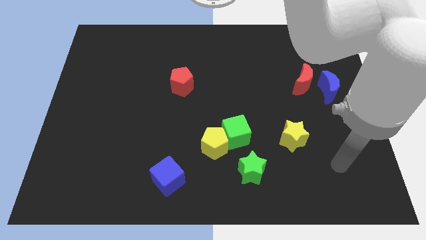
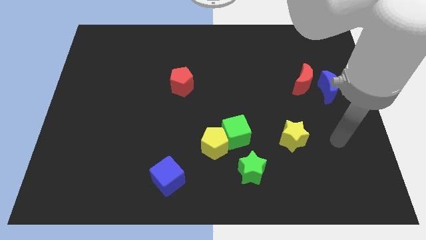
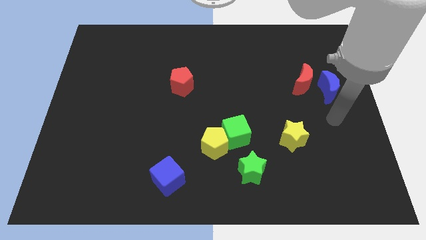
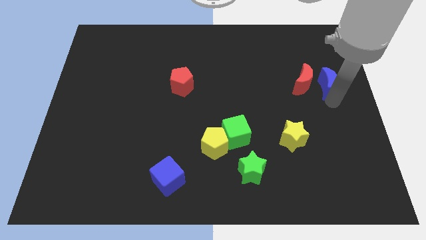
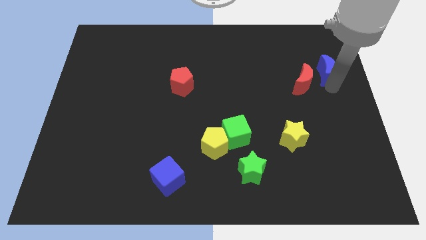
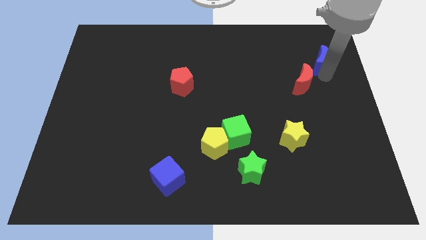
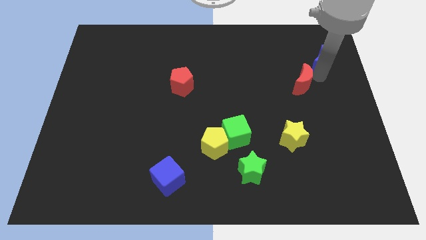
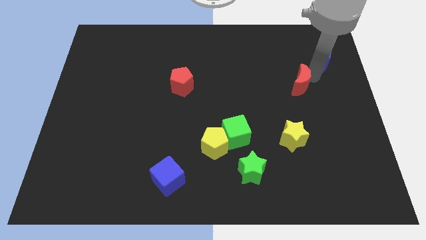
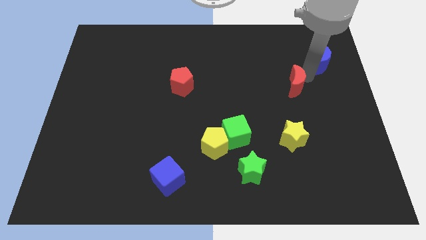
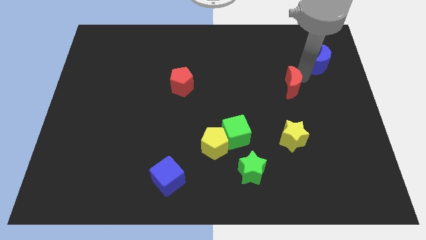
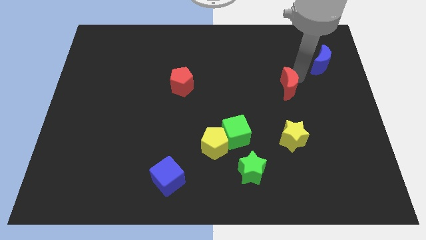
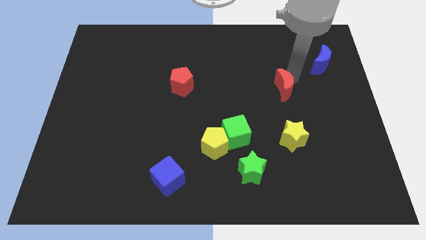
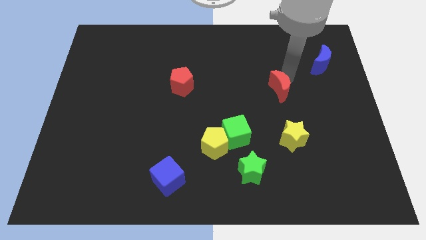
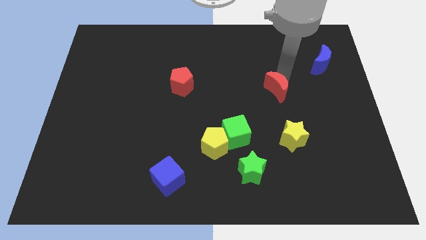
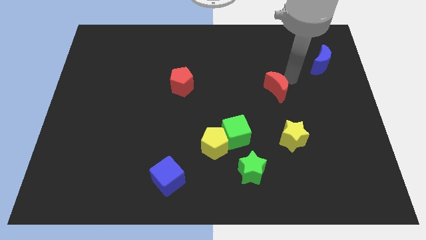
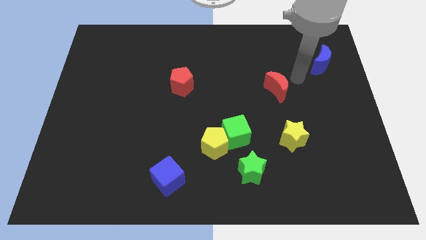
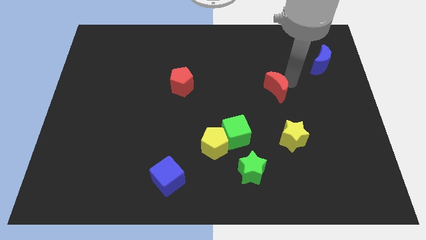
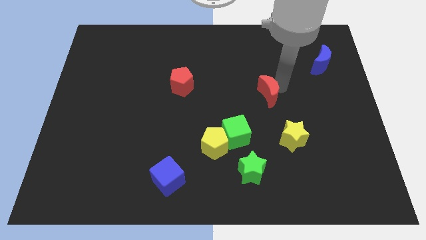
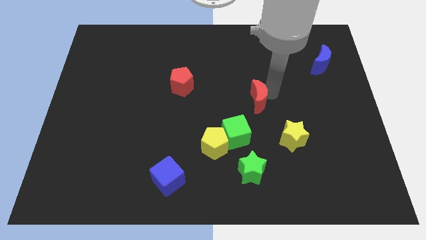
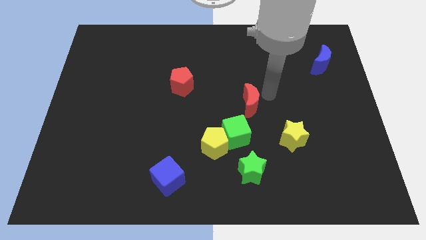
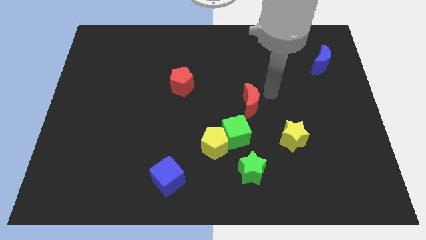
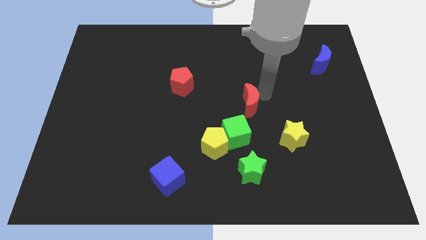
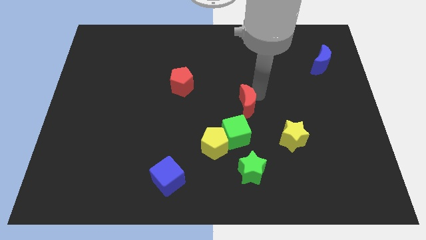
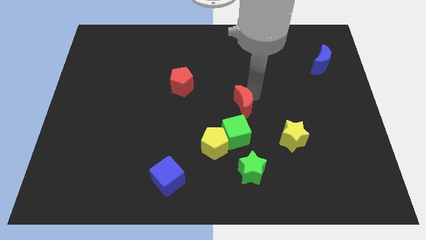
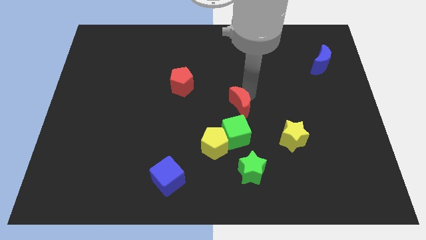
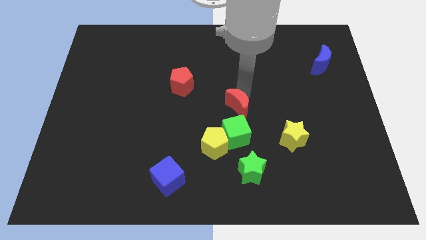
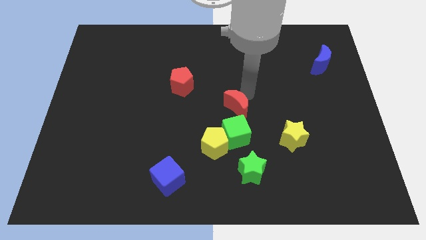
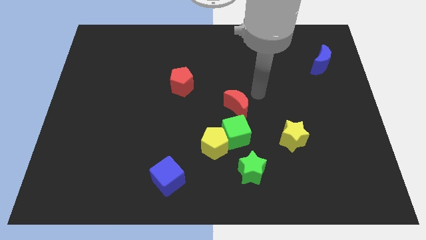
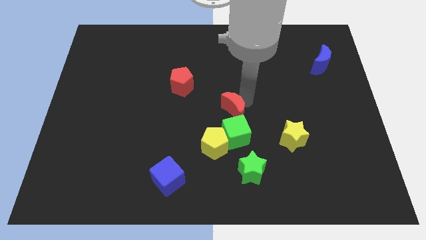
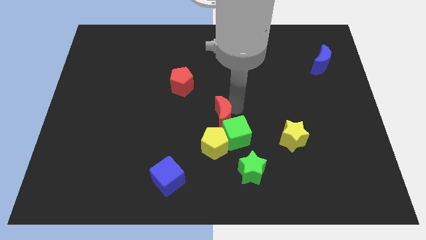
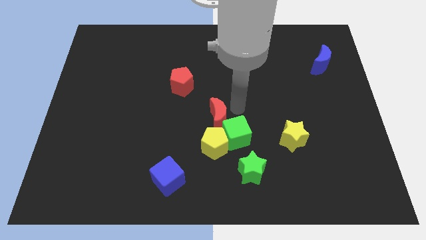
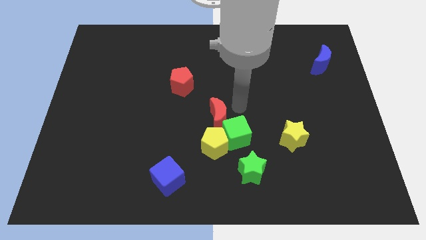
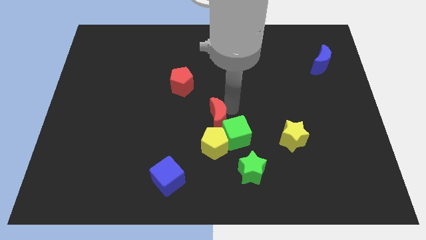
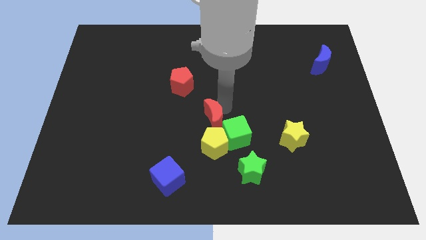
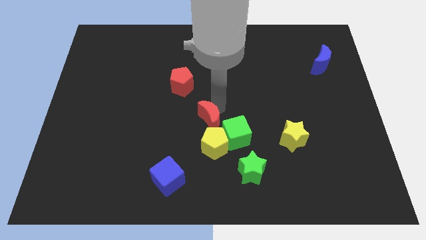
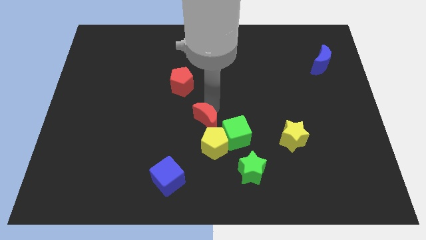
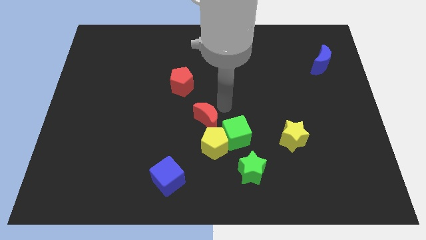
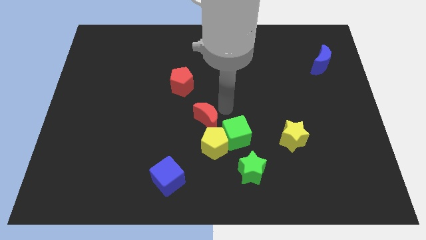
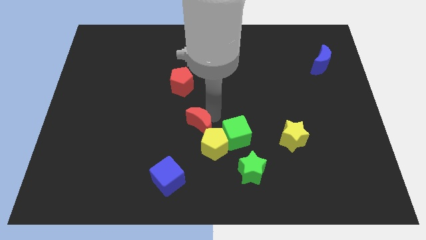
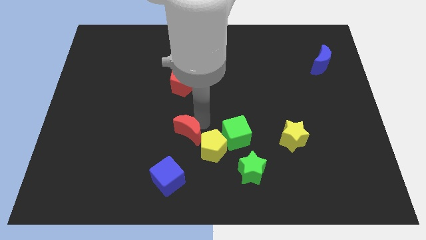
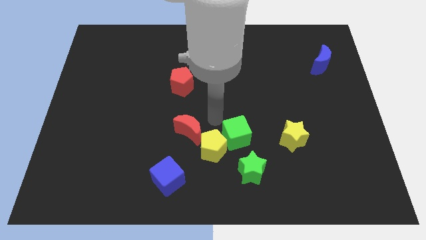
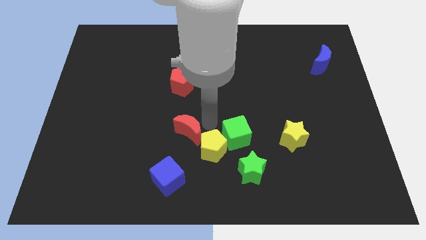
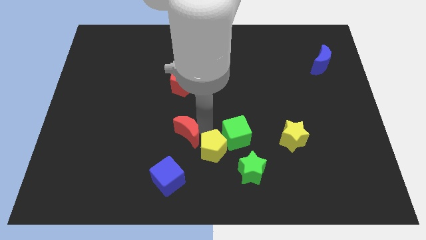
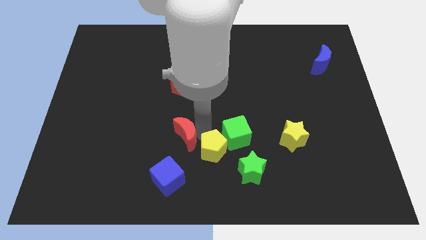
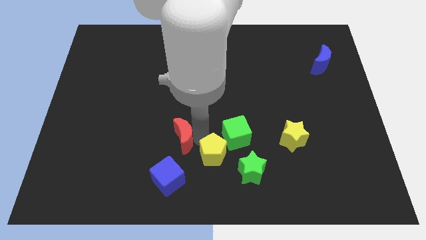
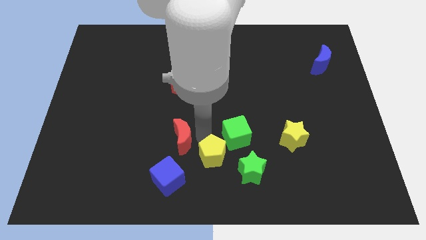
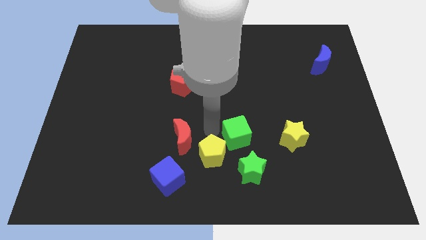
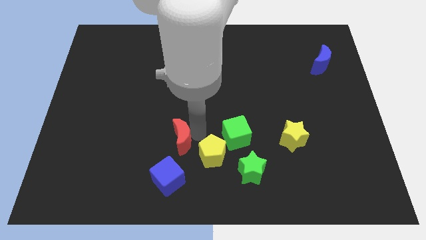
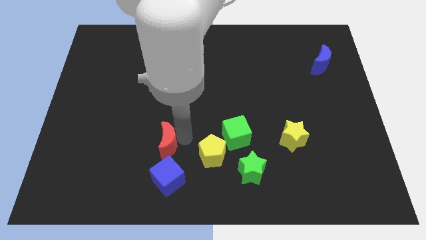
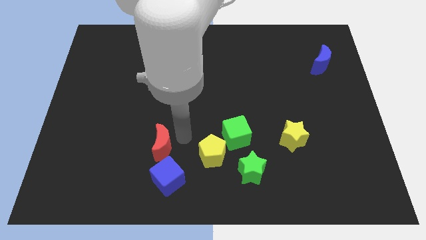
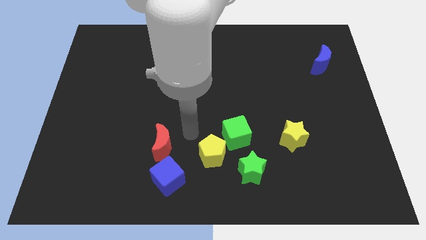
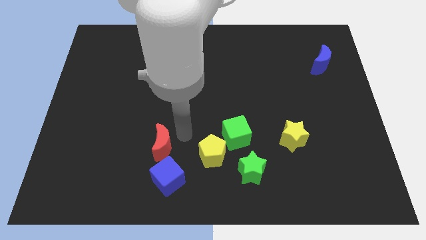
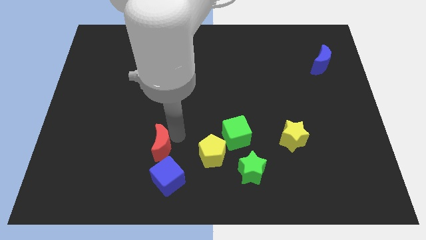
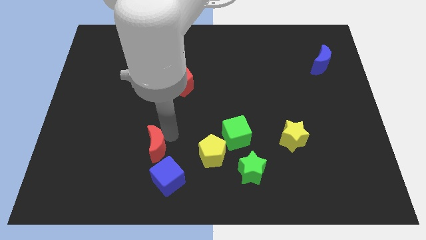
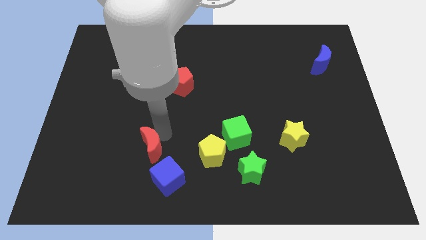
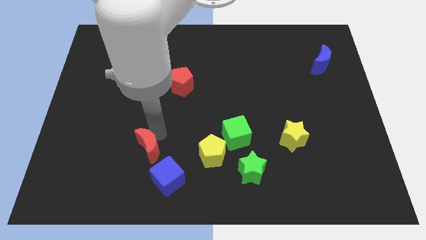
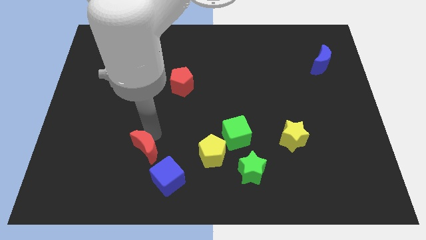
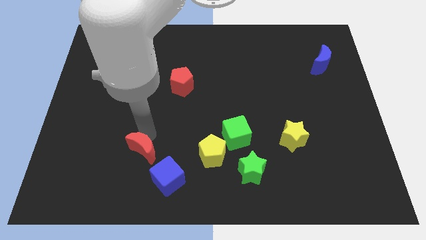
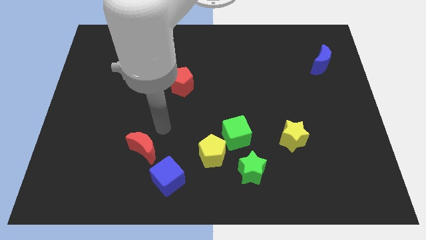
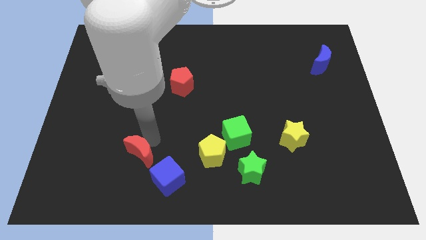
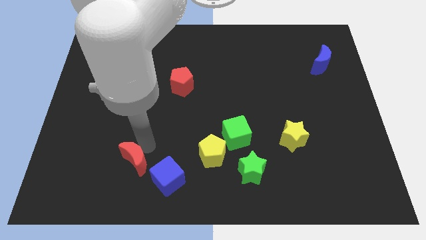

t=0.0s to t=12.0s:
slide the red moon to the left of the blue cube

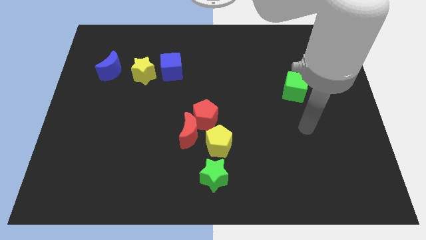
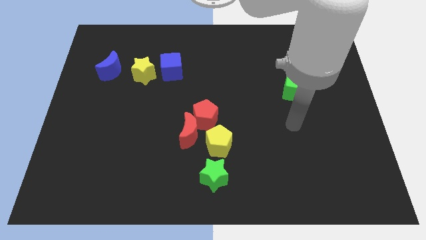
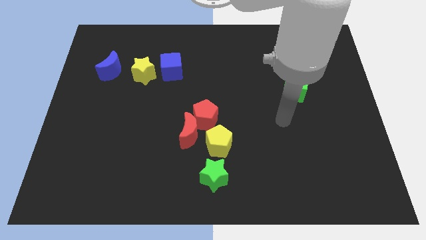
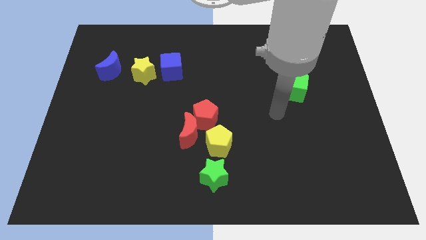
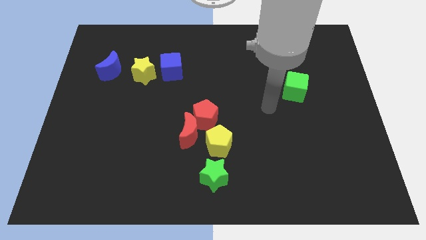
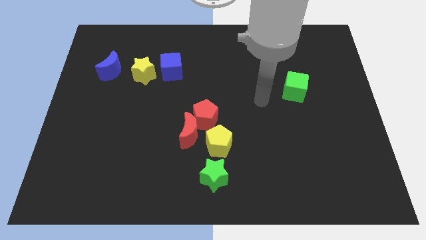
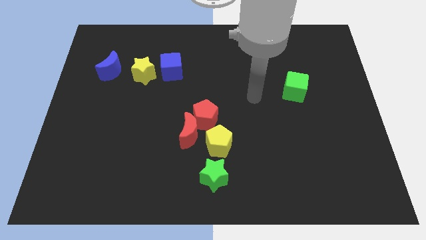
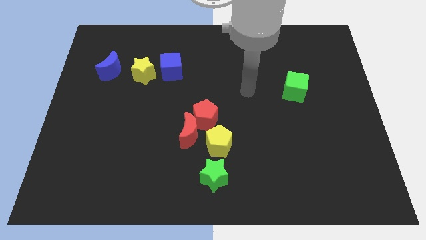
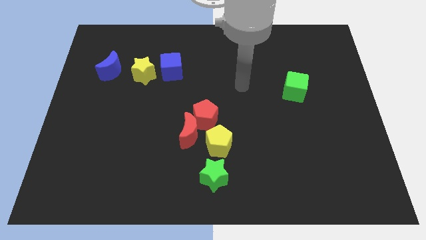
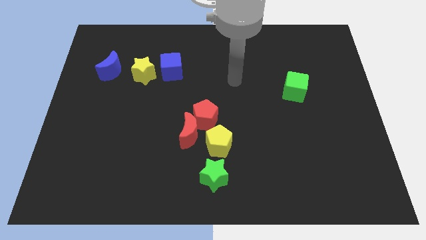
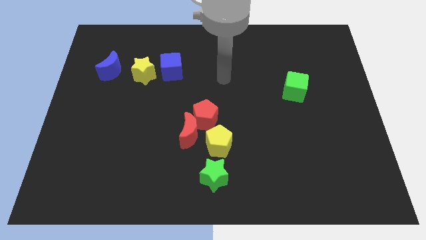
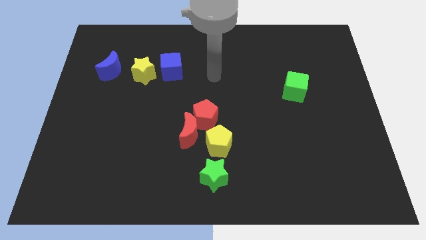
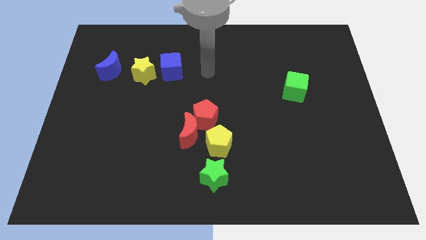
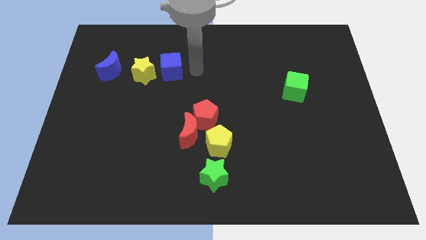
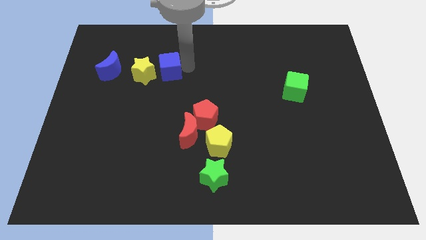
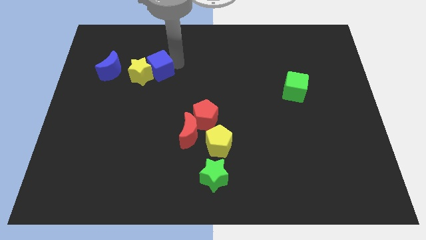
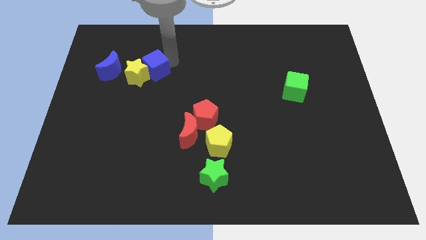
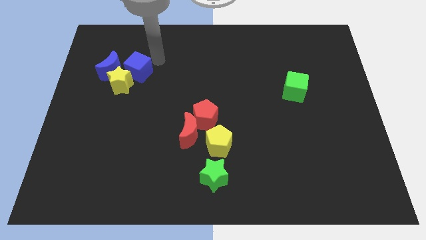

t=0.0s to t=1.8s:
put the yellow star below the blue moon
